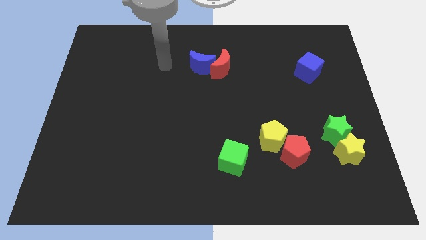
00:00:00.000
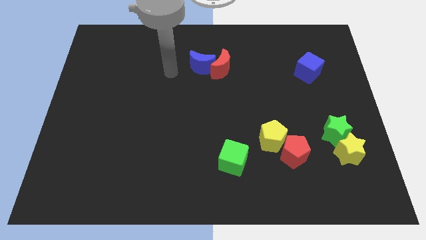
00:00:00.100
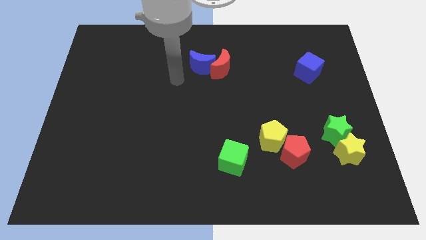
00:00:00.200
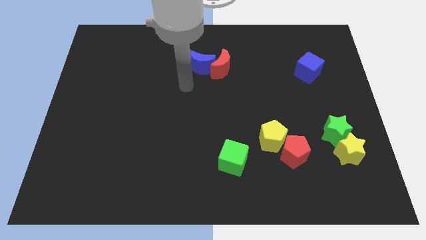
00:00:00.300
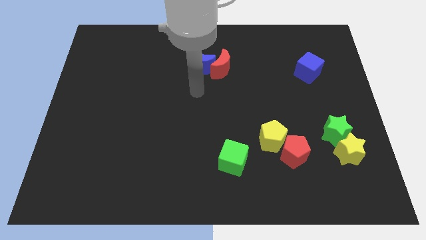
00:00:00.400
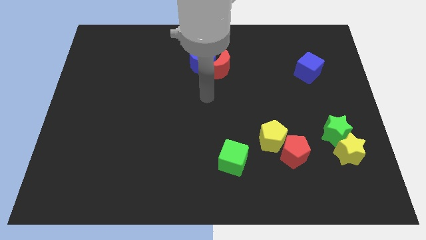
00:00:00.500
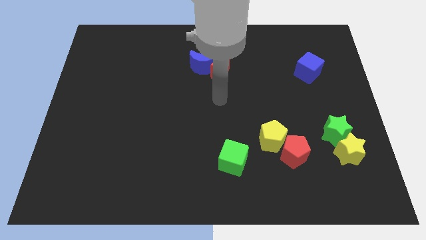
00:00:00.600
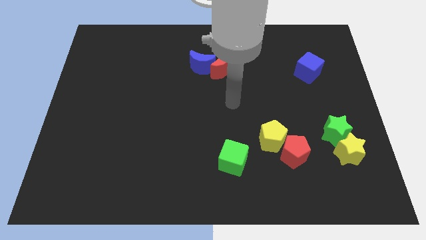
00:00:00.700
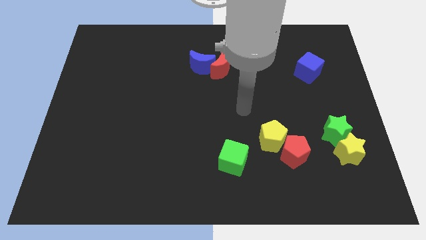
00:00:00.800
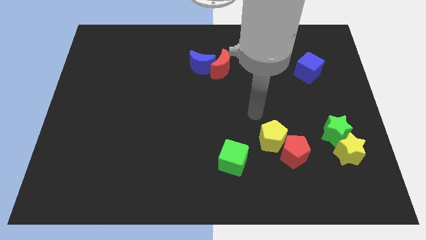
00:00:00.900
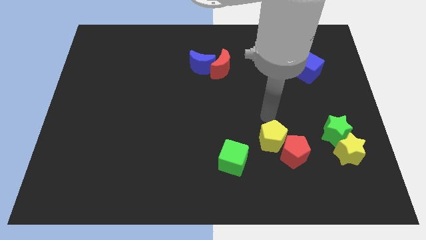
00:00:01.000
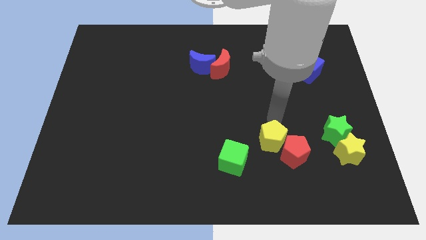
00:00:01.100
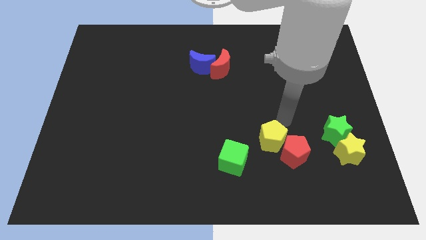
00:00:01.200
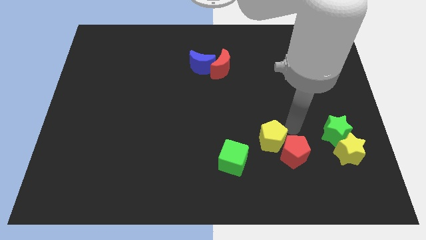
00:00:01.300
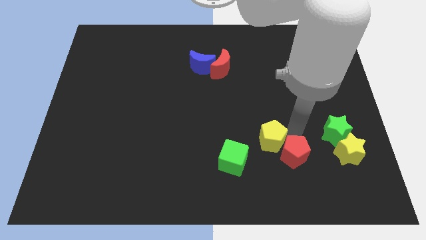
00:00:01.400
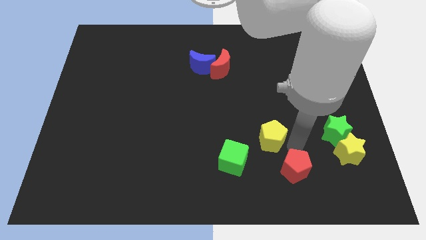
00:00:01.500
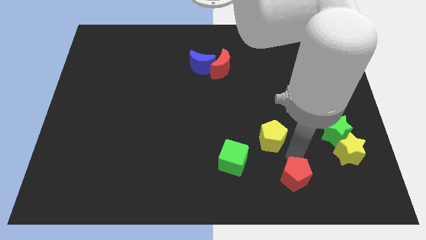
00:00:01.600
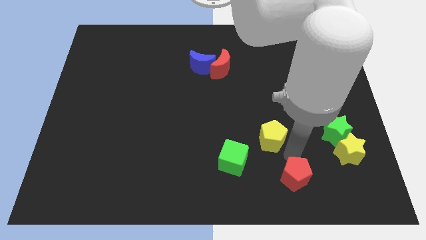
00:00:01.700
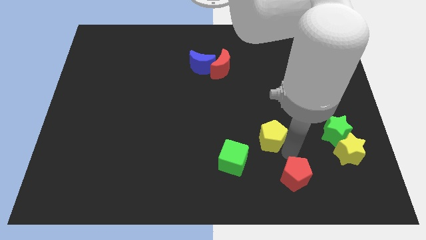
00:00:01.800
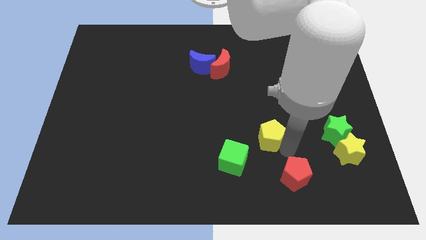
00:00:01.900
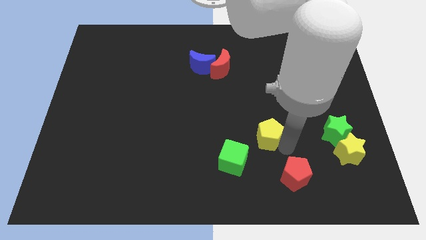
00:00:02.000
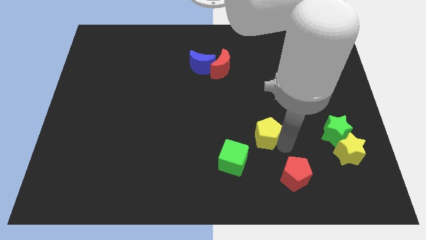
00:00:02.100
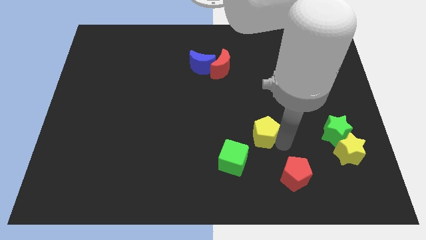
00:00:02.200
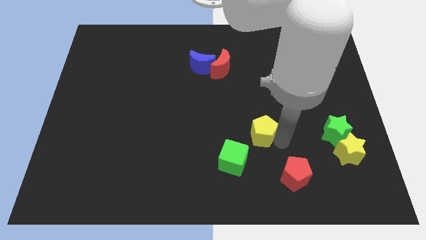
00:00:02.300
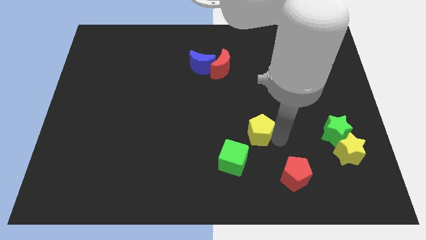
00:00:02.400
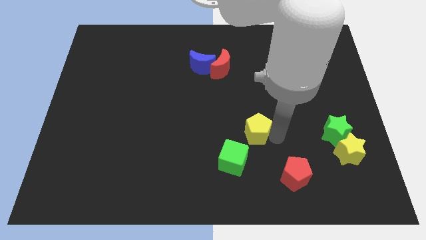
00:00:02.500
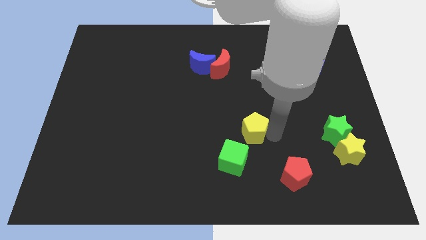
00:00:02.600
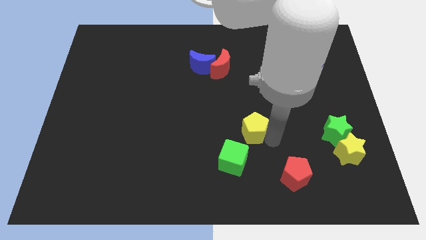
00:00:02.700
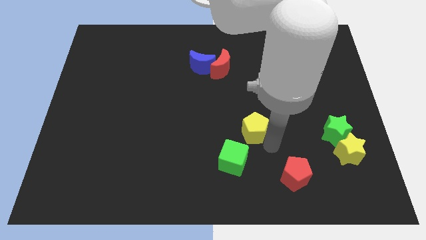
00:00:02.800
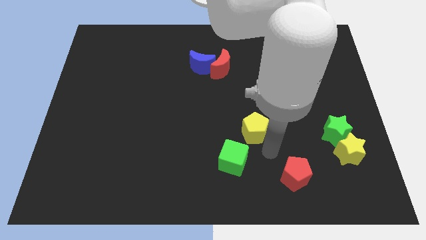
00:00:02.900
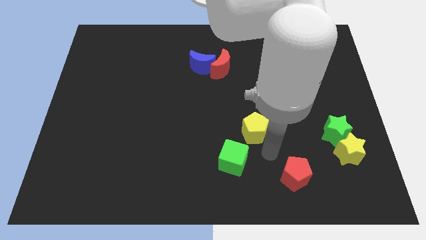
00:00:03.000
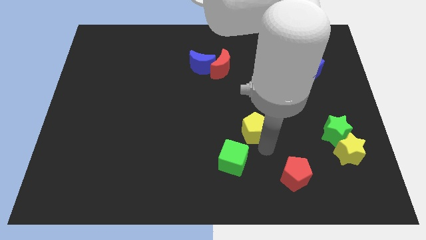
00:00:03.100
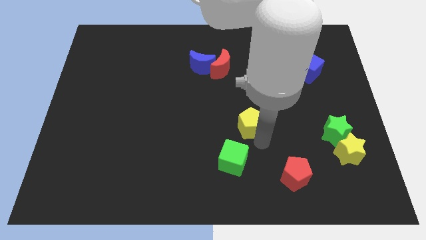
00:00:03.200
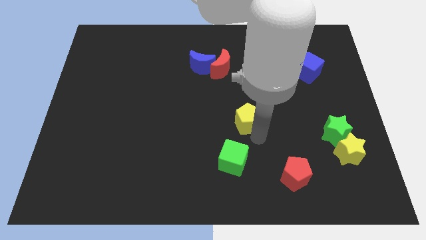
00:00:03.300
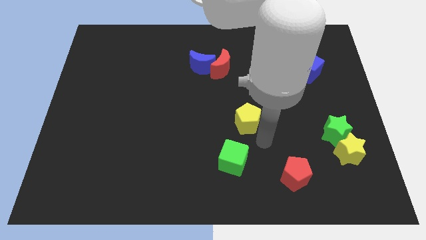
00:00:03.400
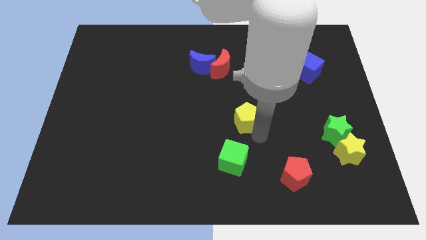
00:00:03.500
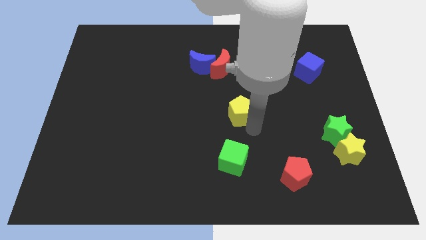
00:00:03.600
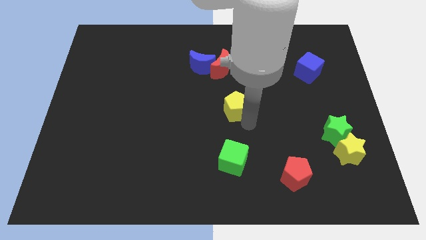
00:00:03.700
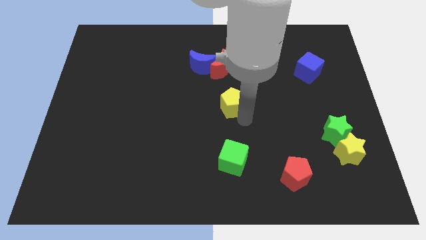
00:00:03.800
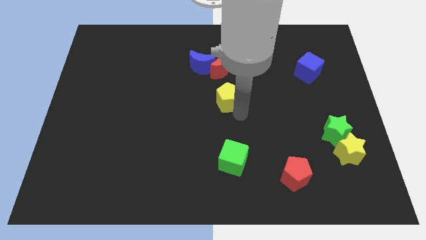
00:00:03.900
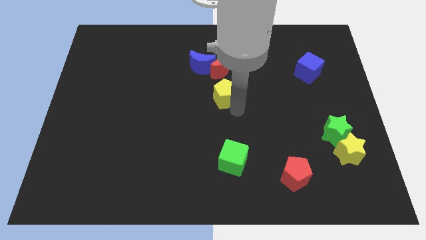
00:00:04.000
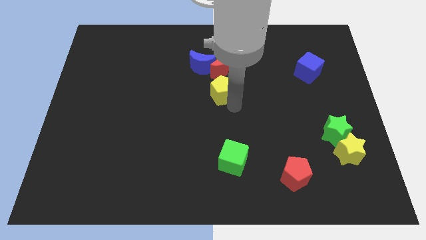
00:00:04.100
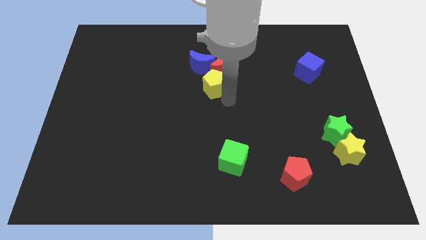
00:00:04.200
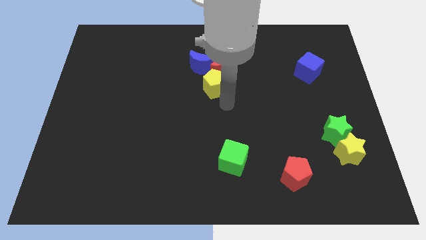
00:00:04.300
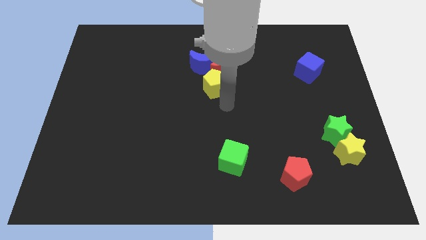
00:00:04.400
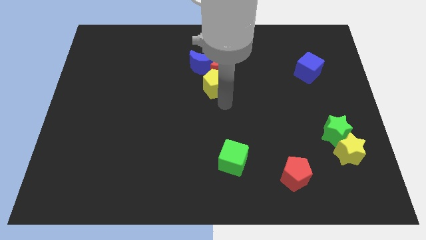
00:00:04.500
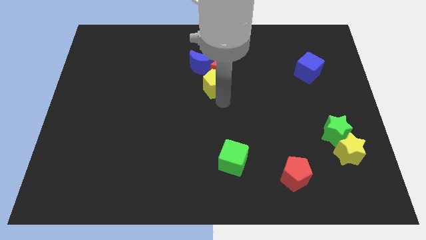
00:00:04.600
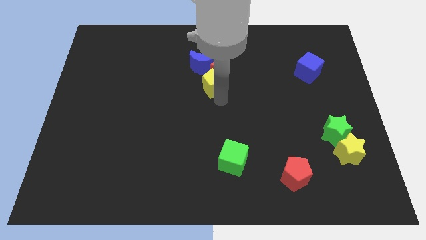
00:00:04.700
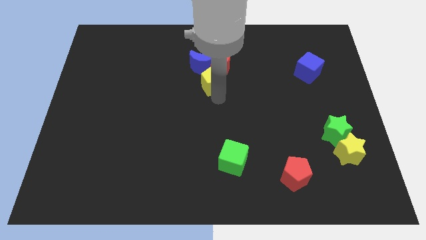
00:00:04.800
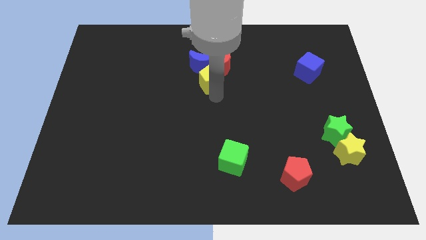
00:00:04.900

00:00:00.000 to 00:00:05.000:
slide the yellow pentagon towards the blue moon

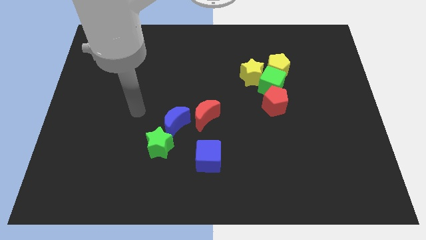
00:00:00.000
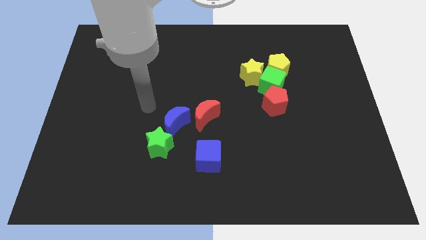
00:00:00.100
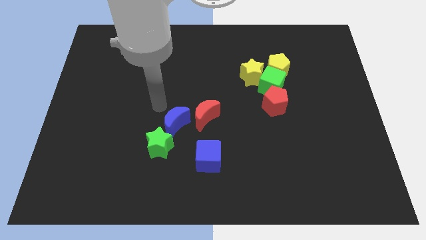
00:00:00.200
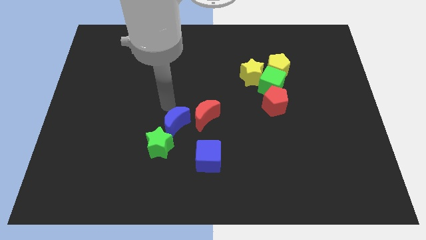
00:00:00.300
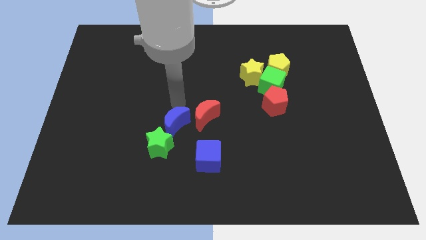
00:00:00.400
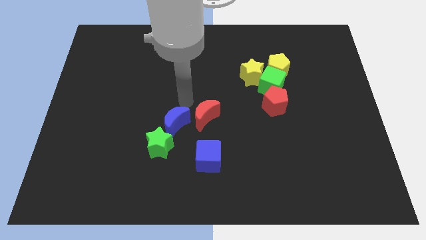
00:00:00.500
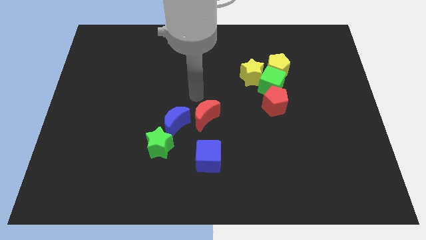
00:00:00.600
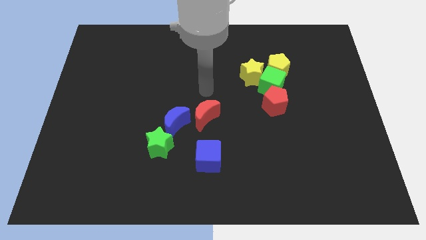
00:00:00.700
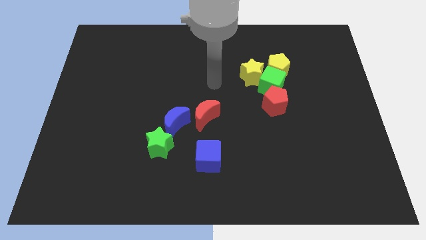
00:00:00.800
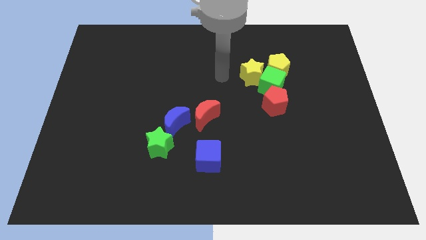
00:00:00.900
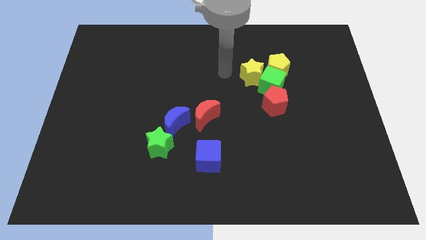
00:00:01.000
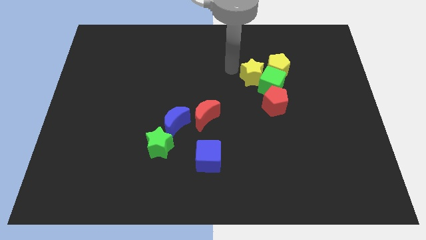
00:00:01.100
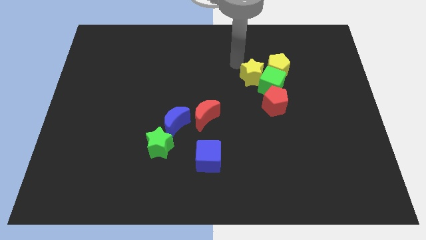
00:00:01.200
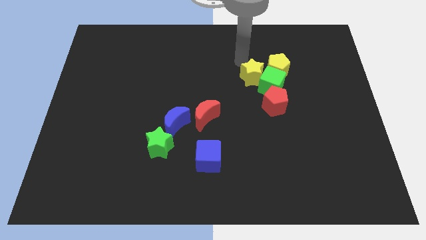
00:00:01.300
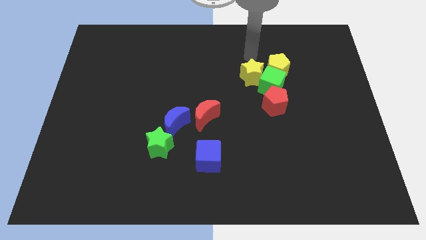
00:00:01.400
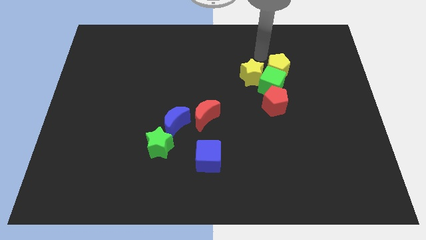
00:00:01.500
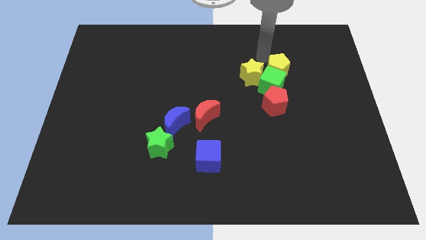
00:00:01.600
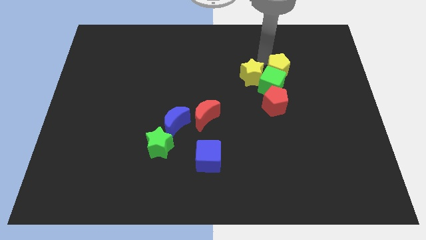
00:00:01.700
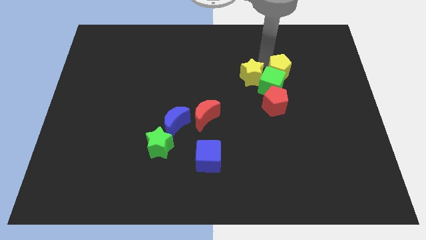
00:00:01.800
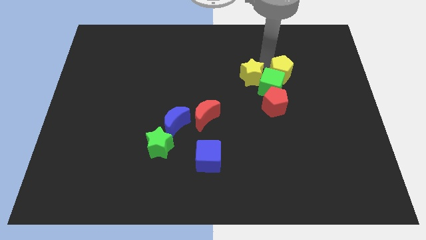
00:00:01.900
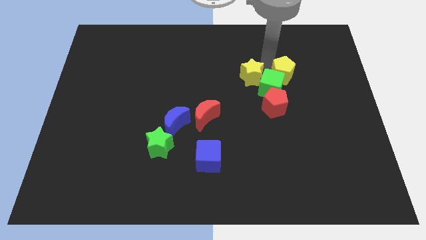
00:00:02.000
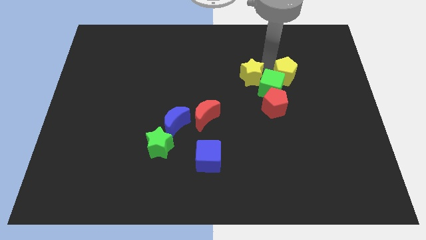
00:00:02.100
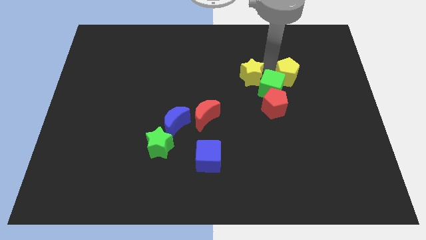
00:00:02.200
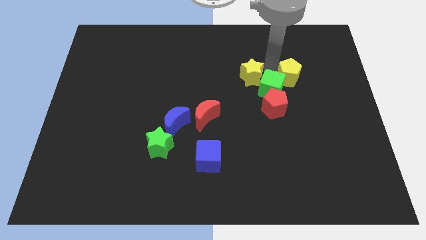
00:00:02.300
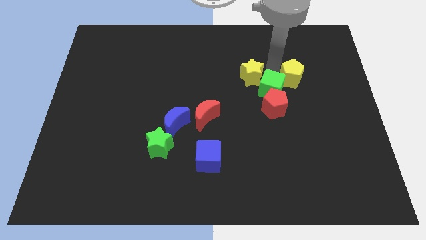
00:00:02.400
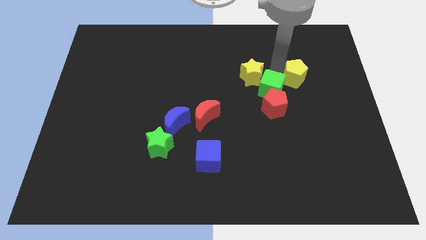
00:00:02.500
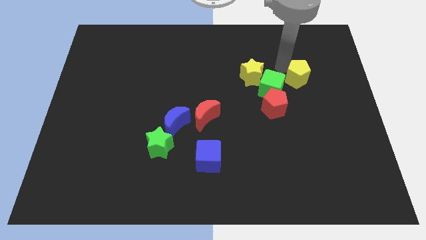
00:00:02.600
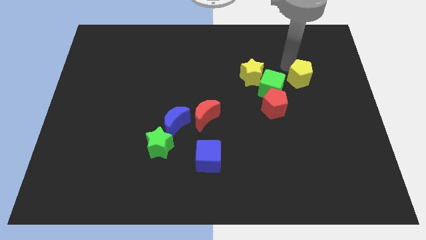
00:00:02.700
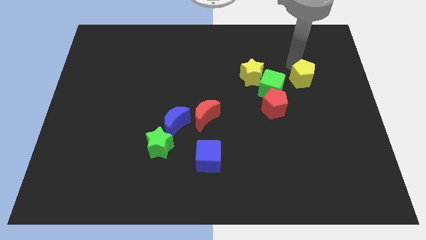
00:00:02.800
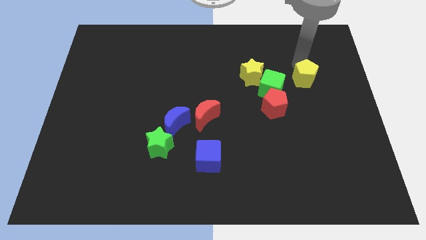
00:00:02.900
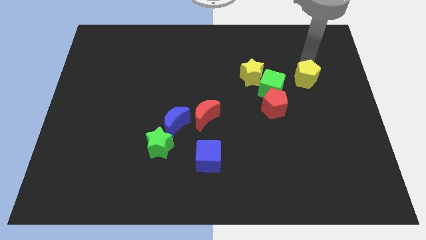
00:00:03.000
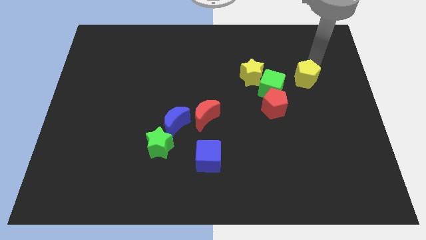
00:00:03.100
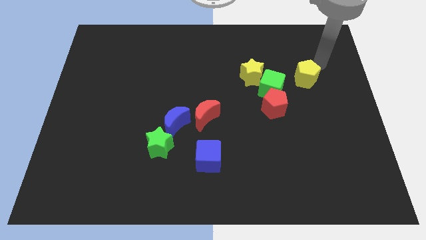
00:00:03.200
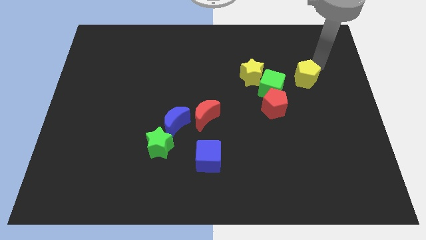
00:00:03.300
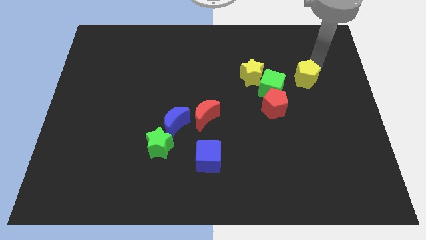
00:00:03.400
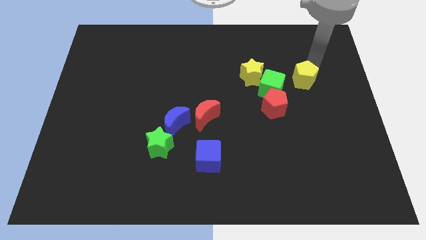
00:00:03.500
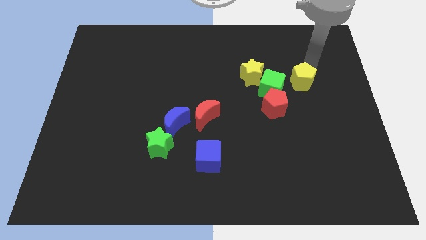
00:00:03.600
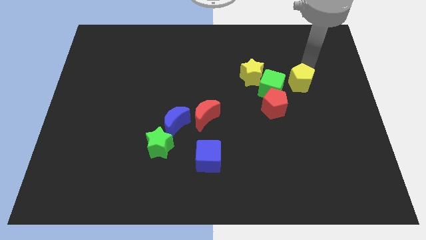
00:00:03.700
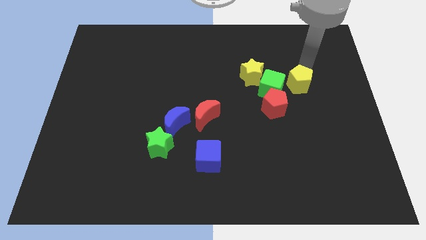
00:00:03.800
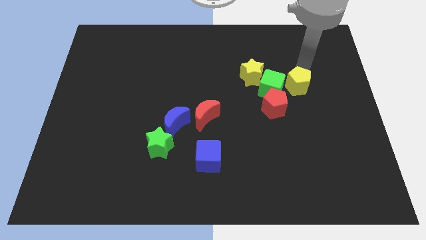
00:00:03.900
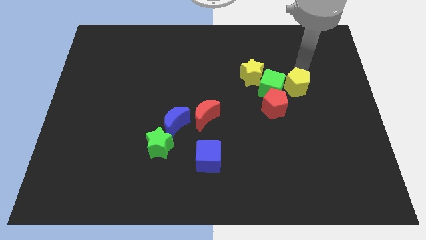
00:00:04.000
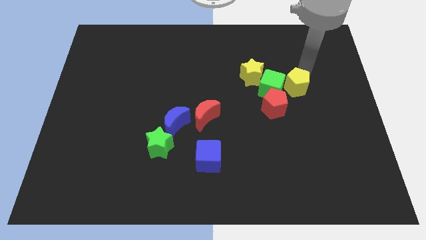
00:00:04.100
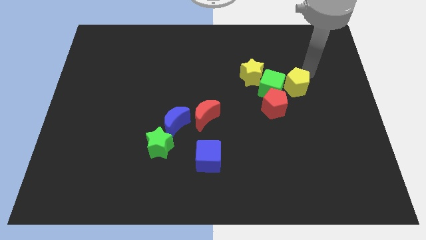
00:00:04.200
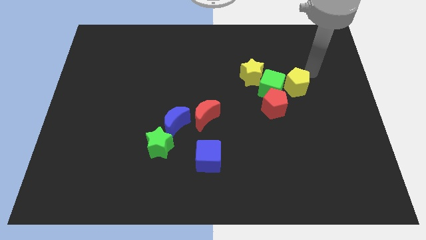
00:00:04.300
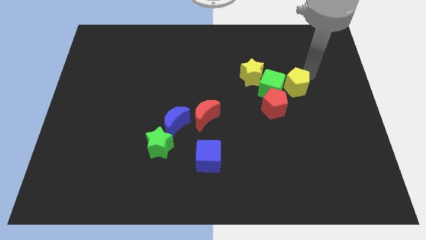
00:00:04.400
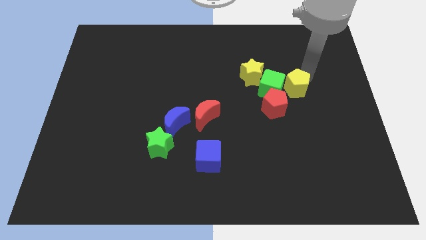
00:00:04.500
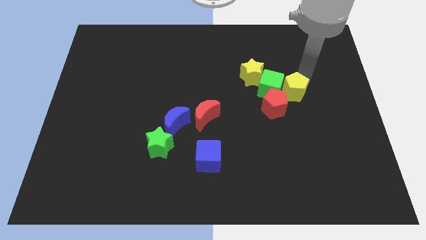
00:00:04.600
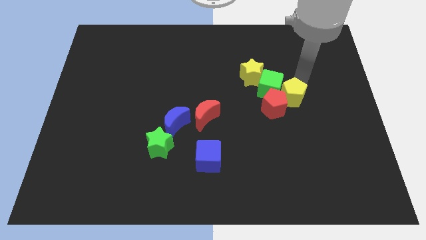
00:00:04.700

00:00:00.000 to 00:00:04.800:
move the yellow pentagon close to the red pentagon
